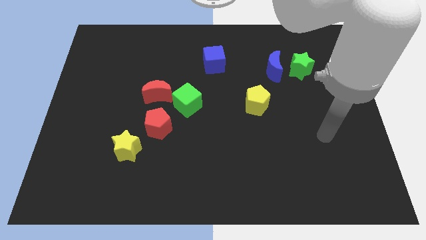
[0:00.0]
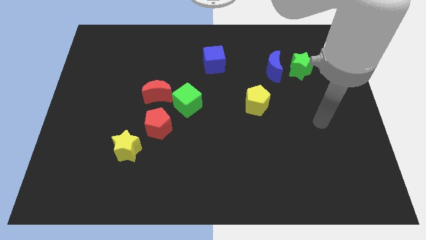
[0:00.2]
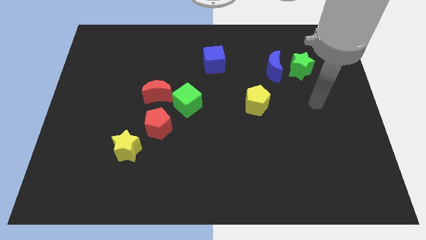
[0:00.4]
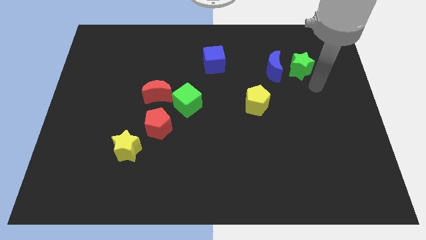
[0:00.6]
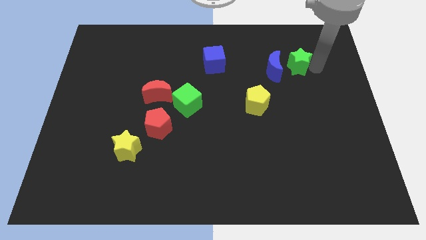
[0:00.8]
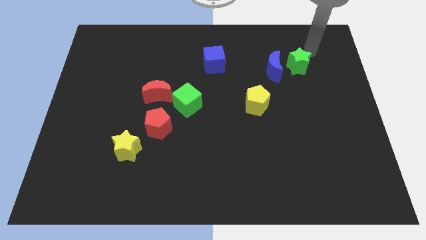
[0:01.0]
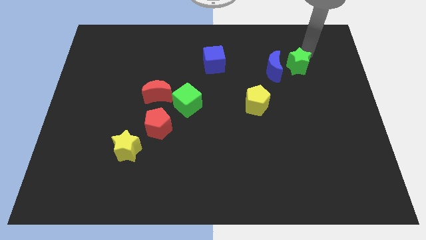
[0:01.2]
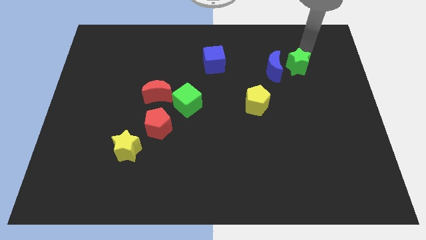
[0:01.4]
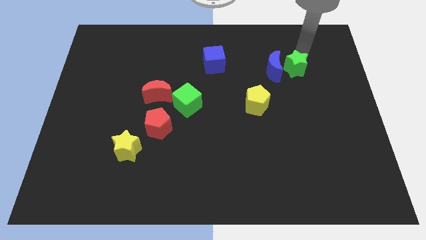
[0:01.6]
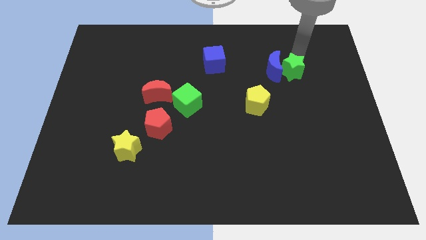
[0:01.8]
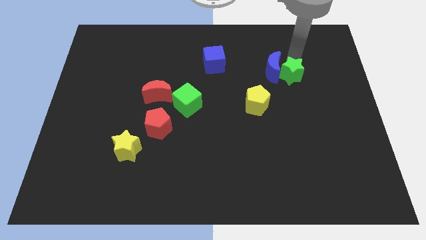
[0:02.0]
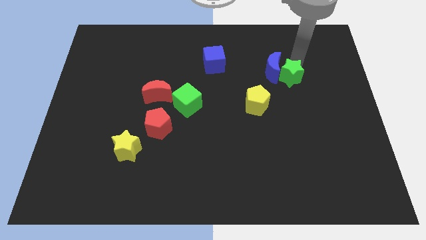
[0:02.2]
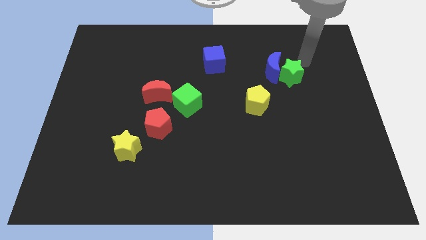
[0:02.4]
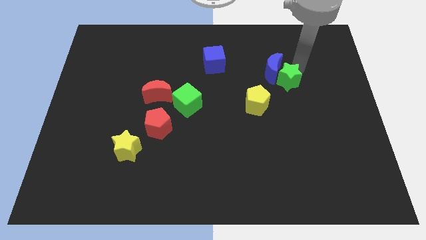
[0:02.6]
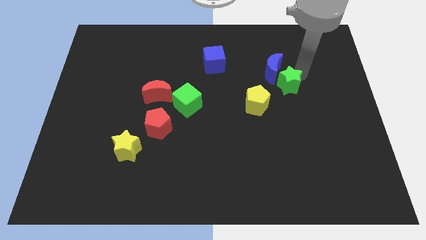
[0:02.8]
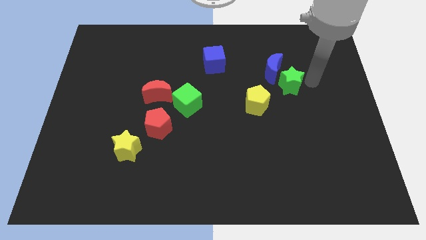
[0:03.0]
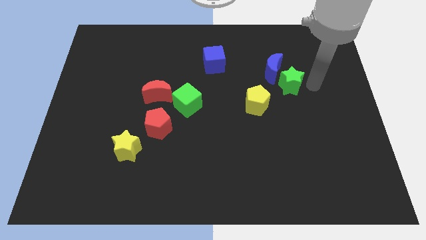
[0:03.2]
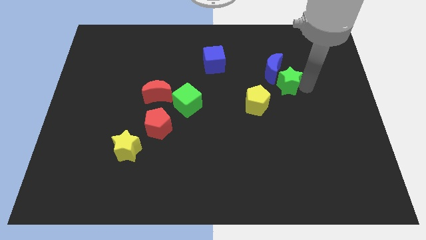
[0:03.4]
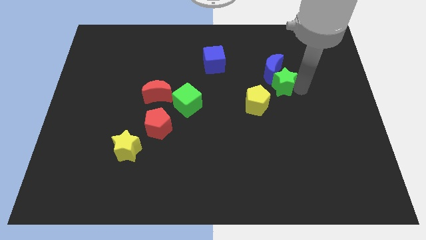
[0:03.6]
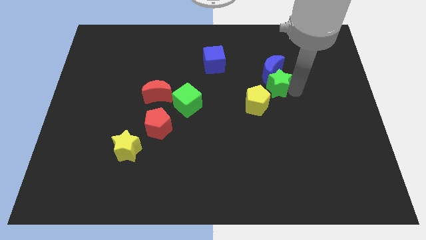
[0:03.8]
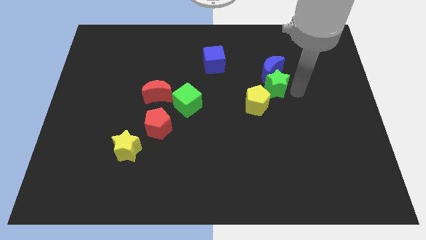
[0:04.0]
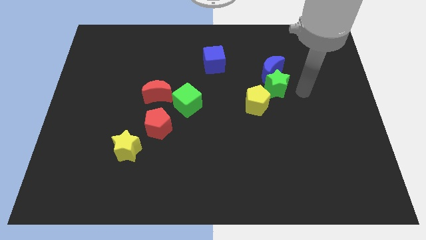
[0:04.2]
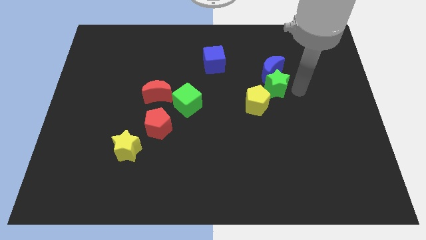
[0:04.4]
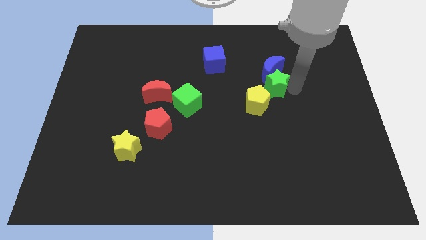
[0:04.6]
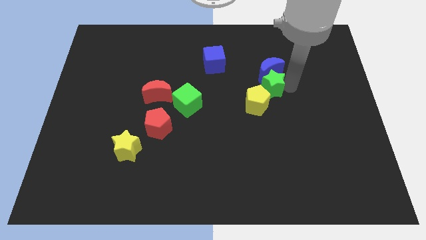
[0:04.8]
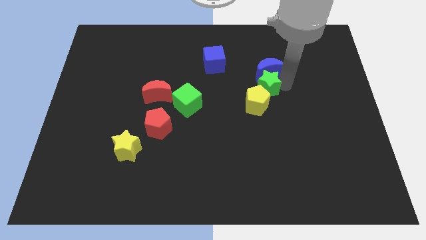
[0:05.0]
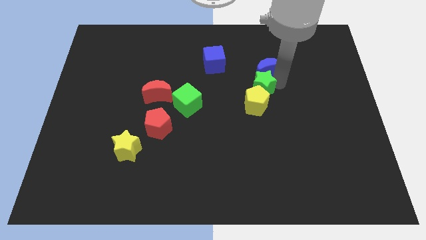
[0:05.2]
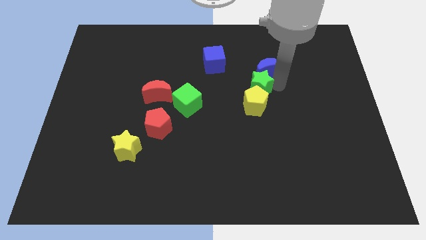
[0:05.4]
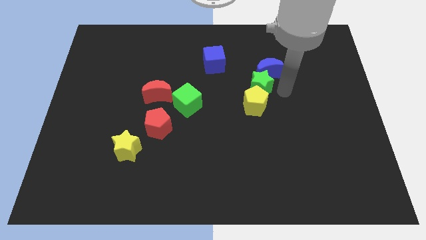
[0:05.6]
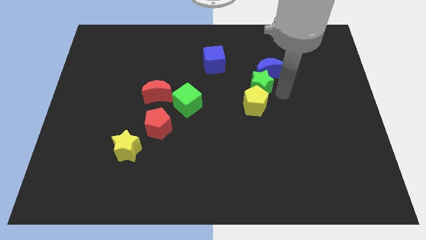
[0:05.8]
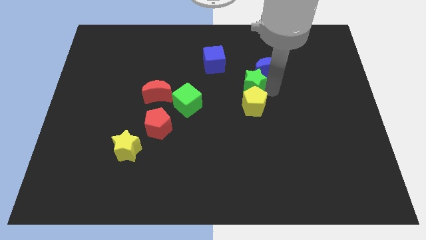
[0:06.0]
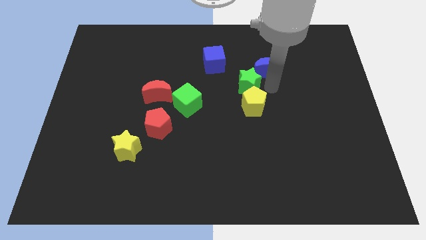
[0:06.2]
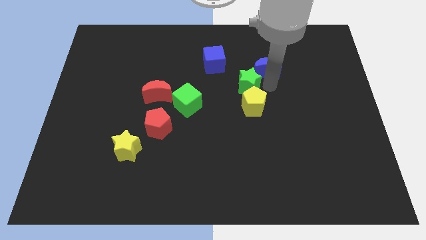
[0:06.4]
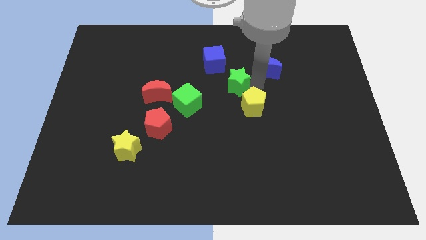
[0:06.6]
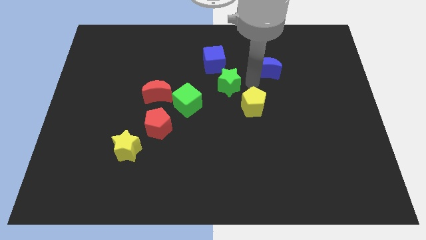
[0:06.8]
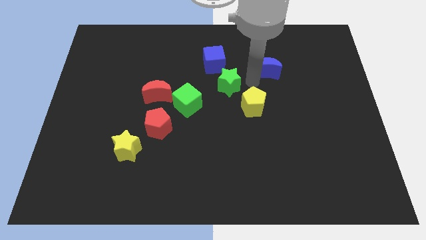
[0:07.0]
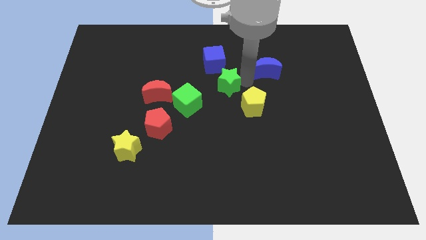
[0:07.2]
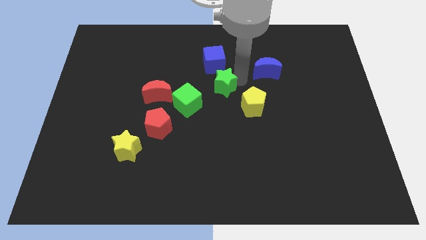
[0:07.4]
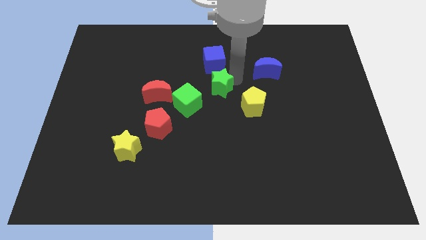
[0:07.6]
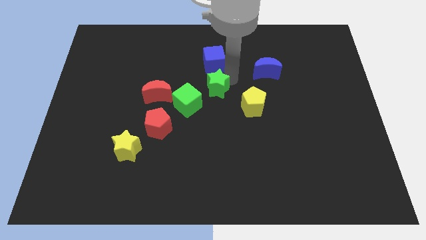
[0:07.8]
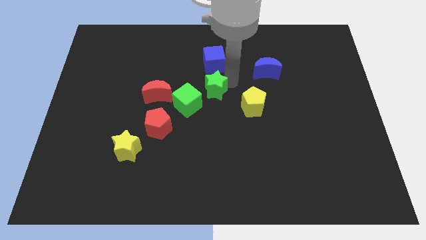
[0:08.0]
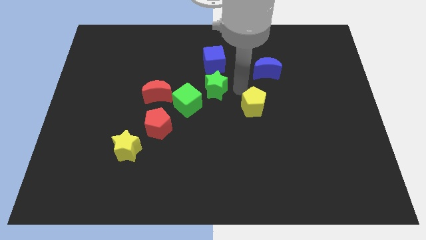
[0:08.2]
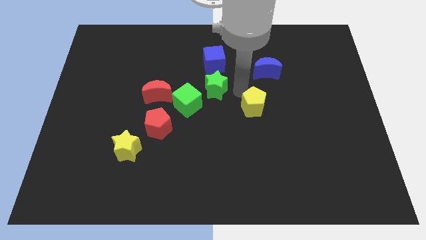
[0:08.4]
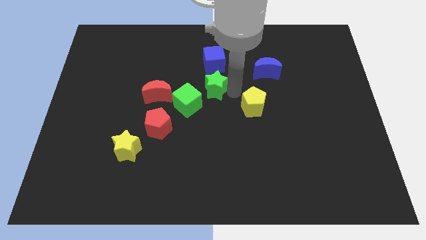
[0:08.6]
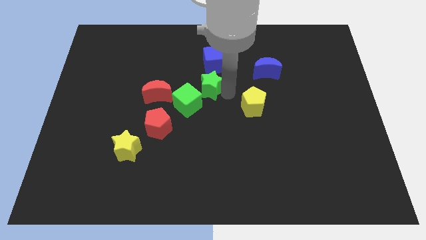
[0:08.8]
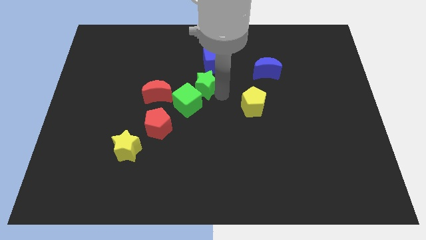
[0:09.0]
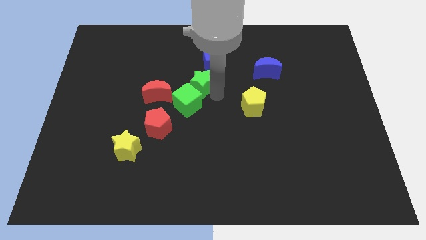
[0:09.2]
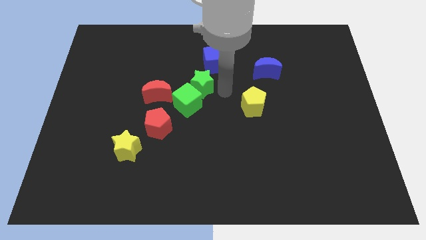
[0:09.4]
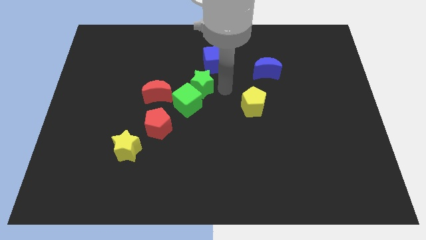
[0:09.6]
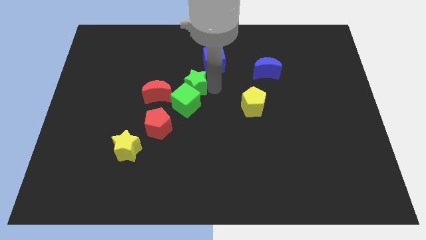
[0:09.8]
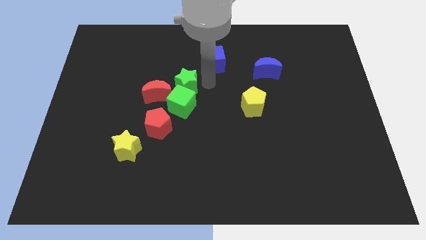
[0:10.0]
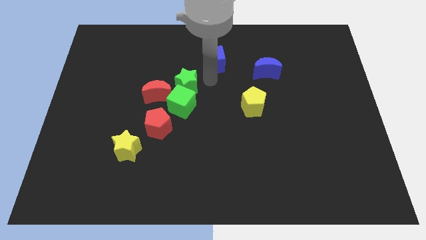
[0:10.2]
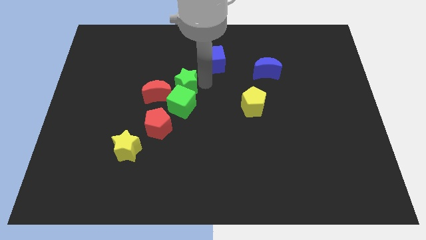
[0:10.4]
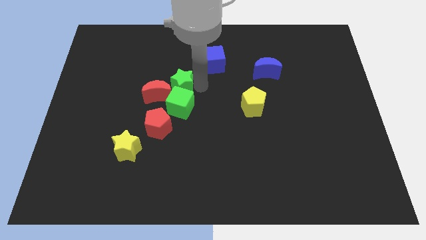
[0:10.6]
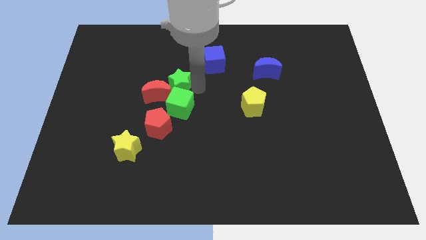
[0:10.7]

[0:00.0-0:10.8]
put the green star towards the red moon

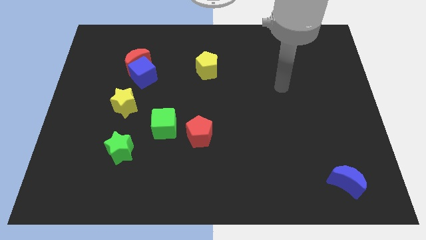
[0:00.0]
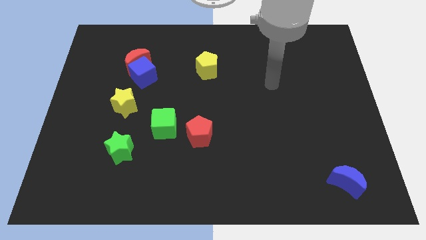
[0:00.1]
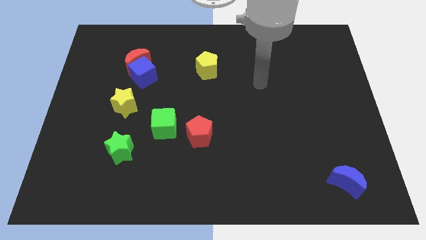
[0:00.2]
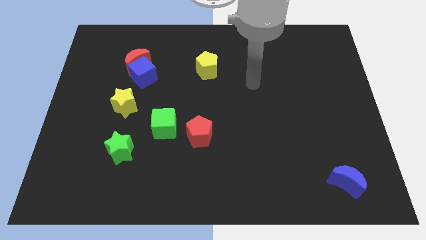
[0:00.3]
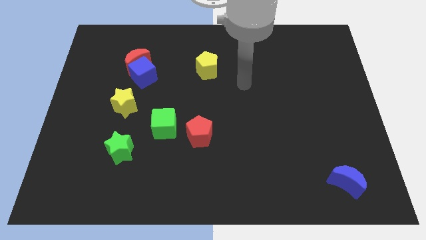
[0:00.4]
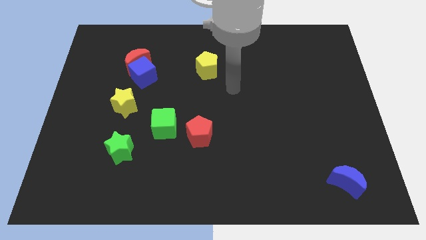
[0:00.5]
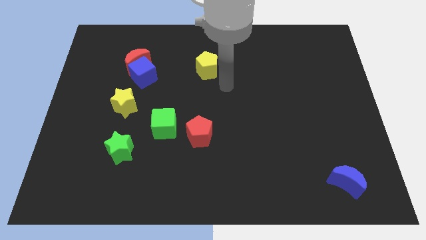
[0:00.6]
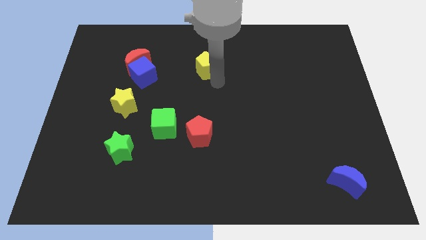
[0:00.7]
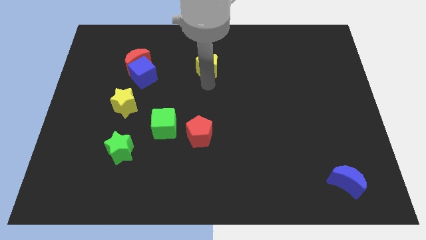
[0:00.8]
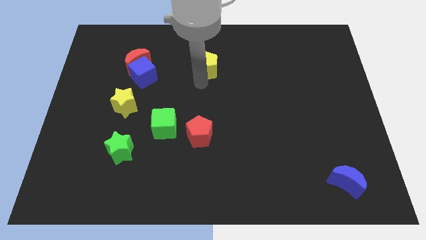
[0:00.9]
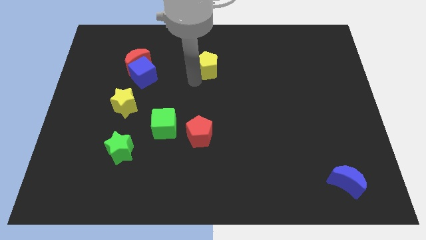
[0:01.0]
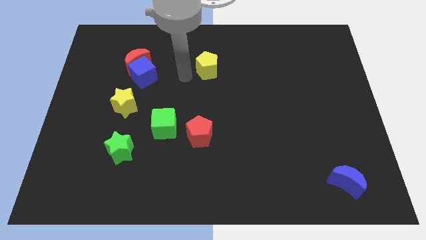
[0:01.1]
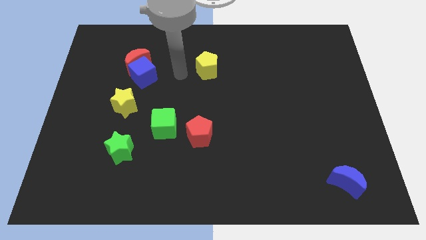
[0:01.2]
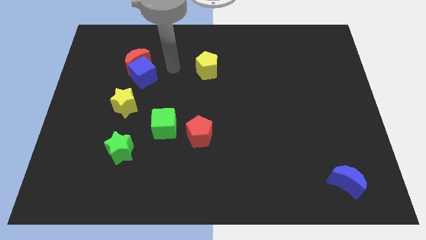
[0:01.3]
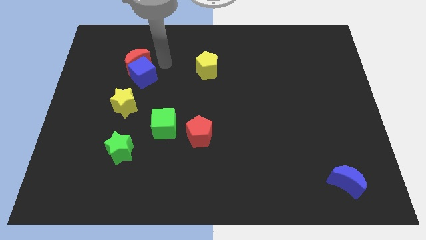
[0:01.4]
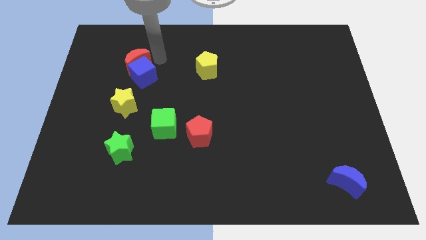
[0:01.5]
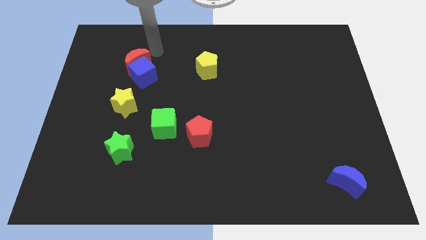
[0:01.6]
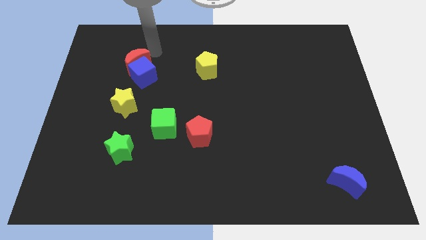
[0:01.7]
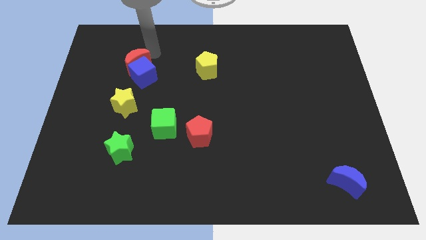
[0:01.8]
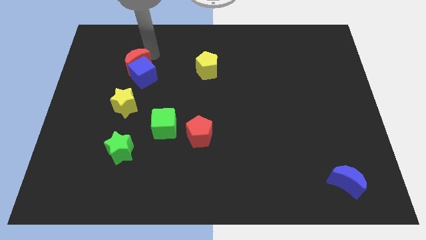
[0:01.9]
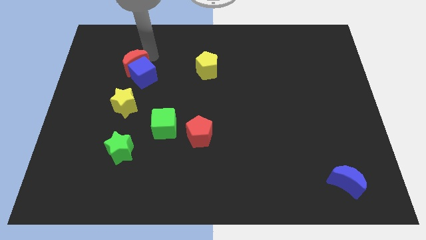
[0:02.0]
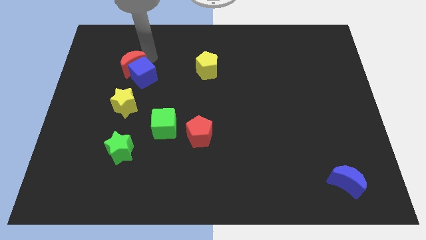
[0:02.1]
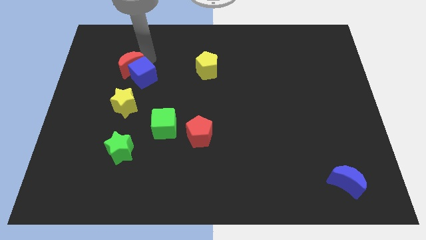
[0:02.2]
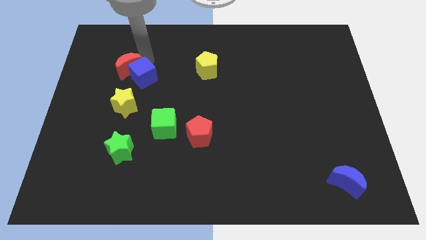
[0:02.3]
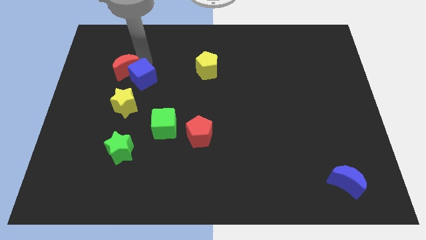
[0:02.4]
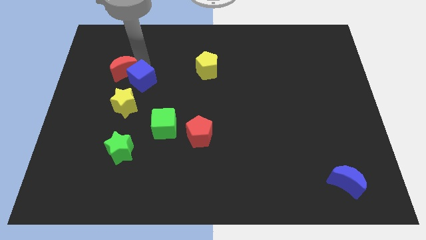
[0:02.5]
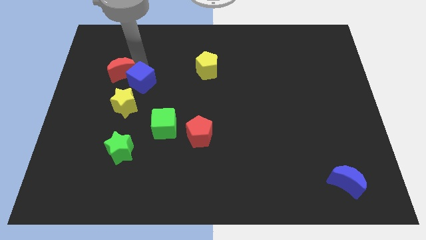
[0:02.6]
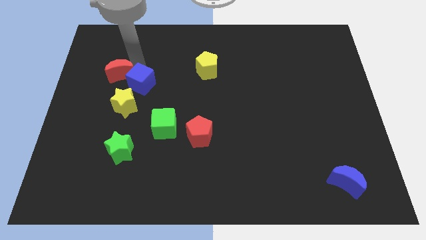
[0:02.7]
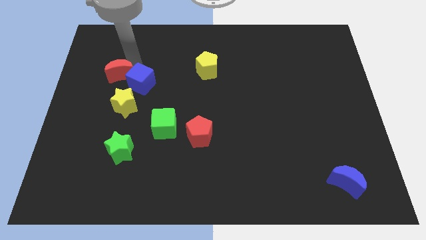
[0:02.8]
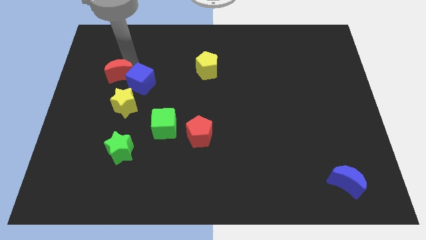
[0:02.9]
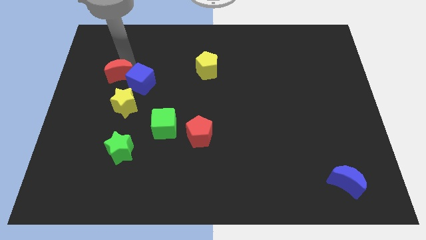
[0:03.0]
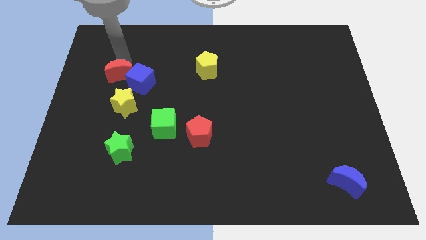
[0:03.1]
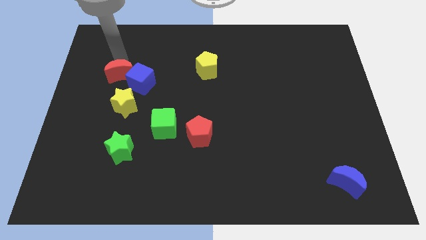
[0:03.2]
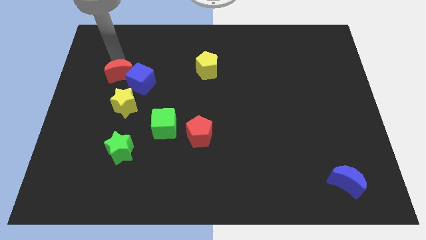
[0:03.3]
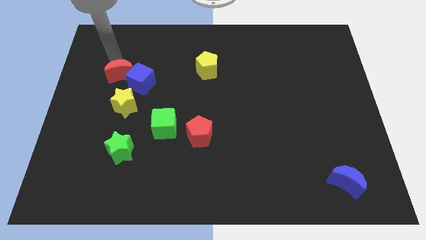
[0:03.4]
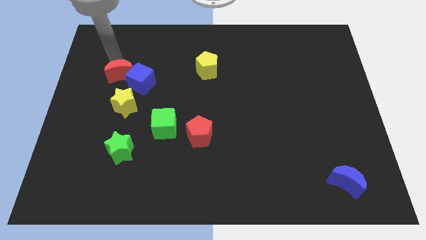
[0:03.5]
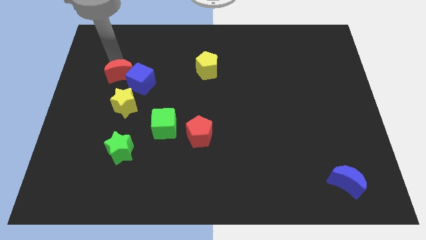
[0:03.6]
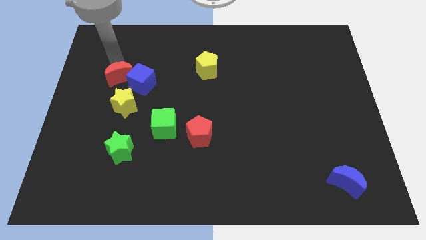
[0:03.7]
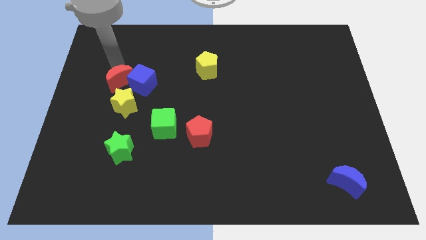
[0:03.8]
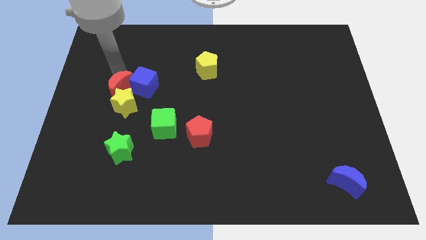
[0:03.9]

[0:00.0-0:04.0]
push the red moon towards the yellow star
